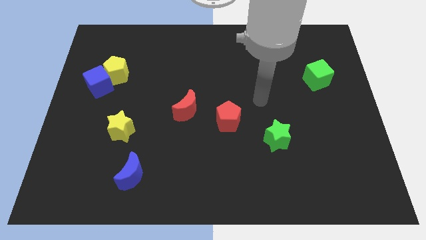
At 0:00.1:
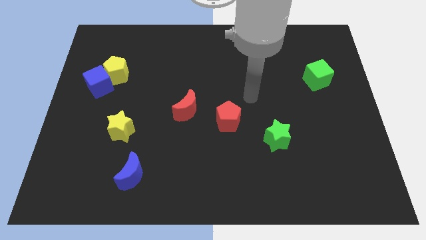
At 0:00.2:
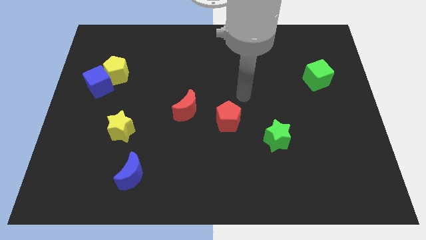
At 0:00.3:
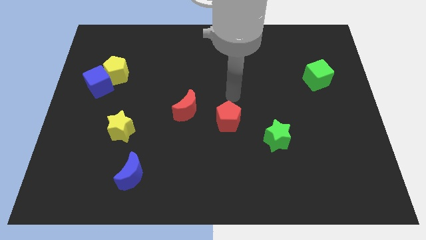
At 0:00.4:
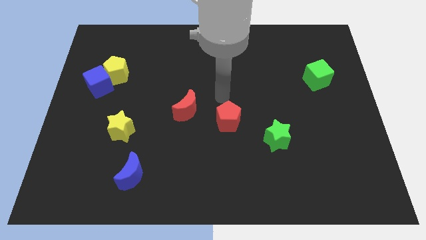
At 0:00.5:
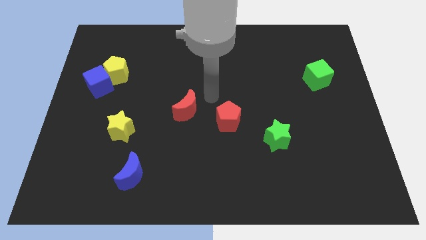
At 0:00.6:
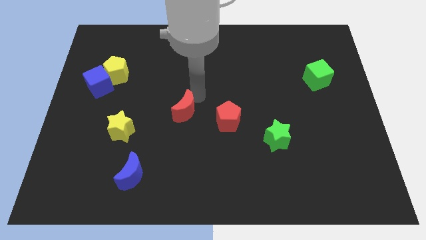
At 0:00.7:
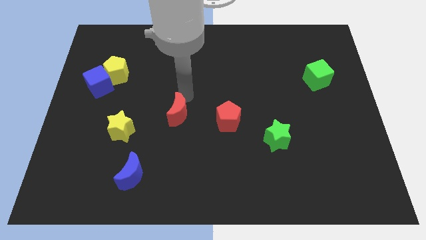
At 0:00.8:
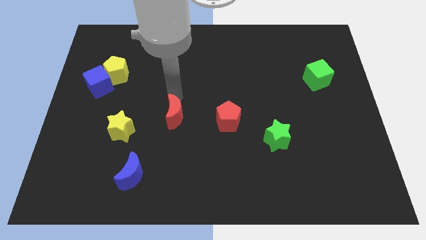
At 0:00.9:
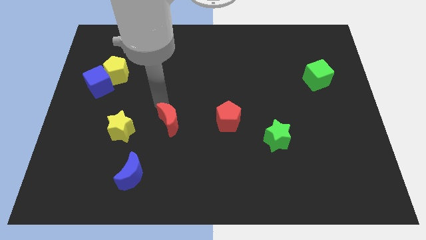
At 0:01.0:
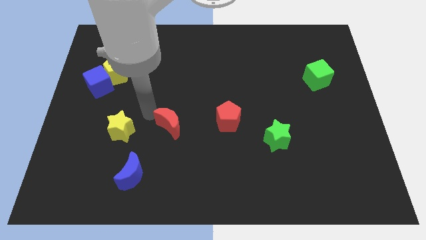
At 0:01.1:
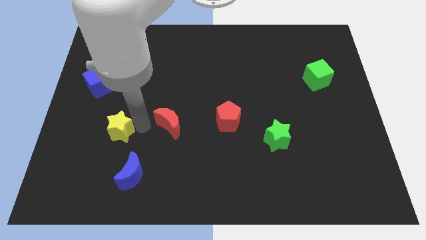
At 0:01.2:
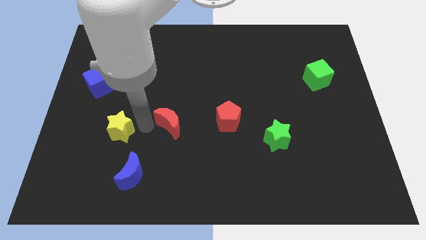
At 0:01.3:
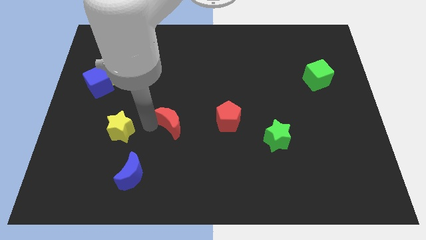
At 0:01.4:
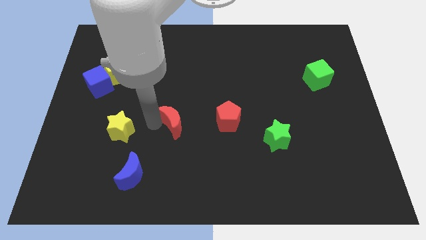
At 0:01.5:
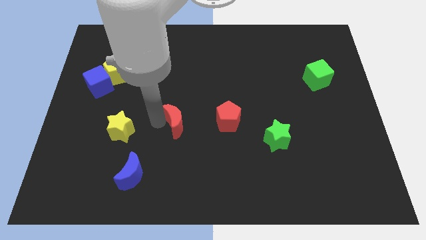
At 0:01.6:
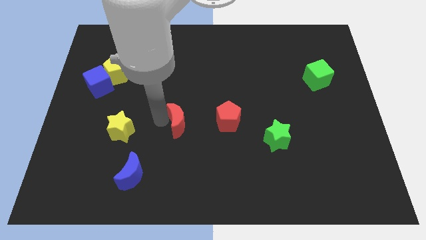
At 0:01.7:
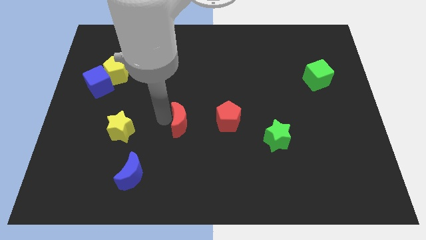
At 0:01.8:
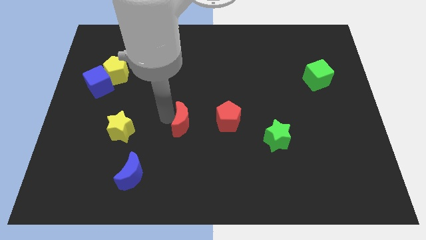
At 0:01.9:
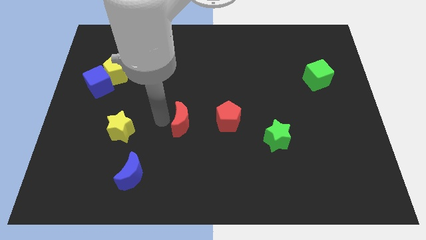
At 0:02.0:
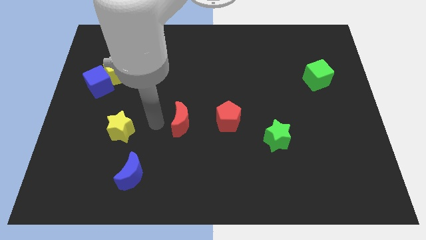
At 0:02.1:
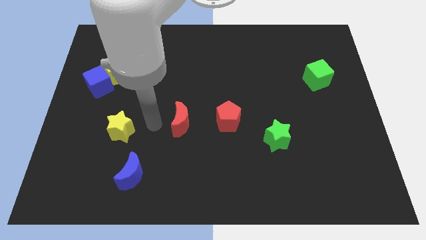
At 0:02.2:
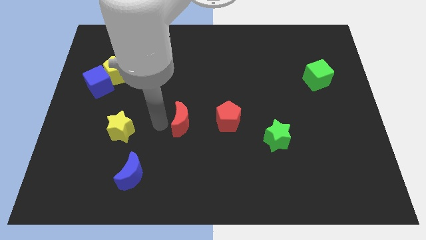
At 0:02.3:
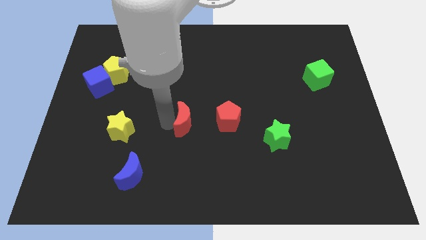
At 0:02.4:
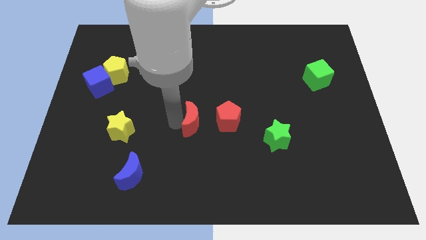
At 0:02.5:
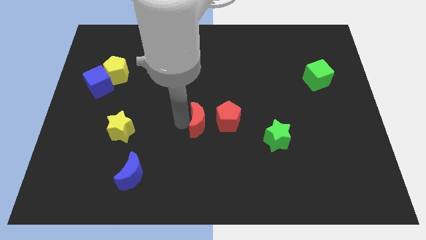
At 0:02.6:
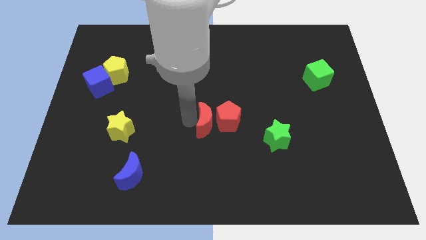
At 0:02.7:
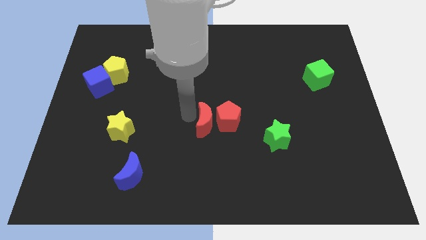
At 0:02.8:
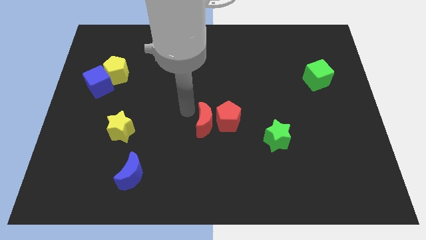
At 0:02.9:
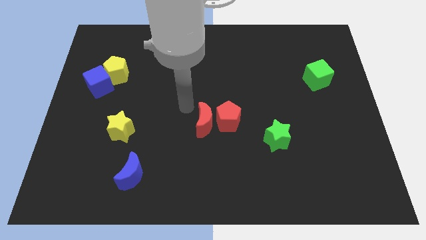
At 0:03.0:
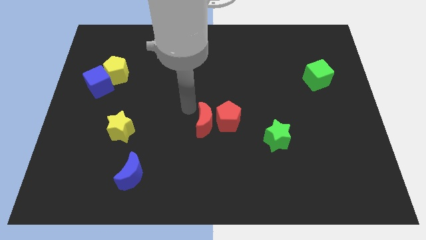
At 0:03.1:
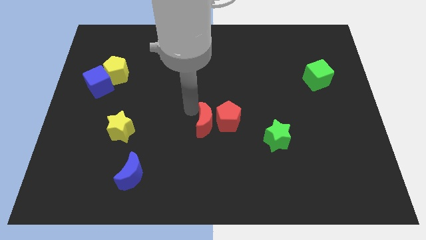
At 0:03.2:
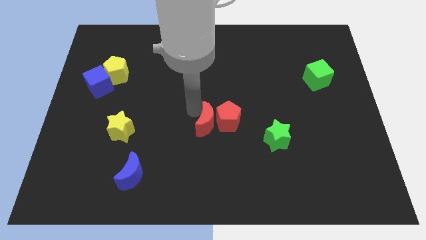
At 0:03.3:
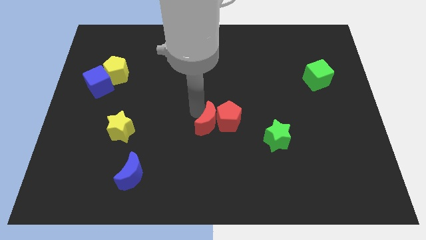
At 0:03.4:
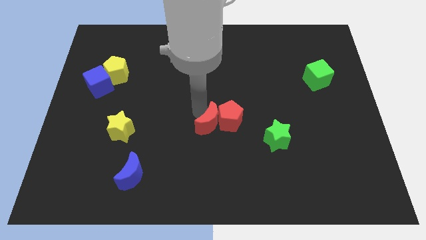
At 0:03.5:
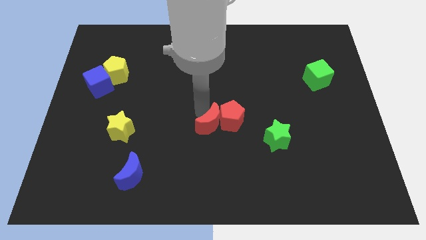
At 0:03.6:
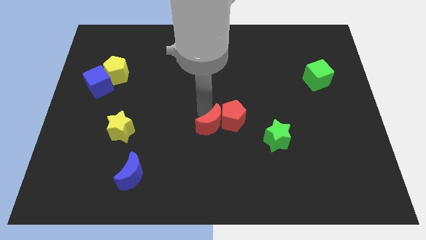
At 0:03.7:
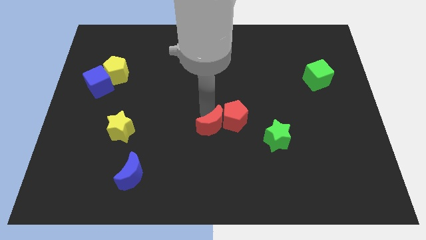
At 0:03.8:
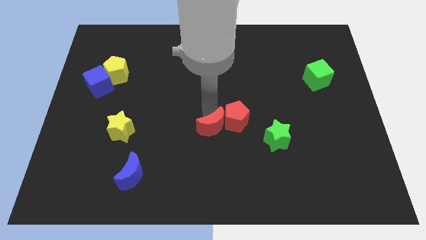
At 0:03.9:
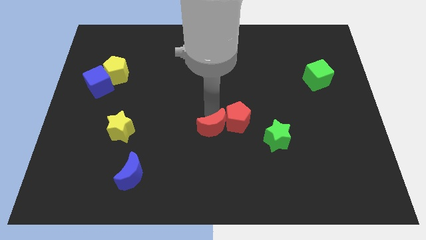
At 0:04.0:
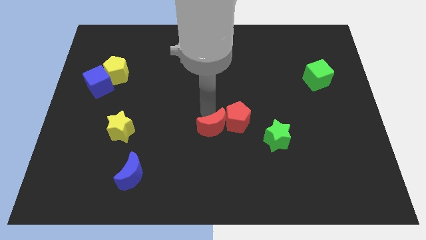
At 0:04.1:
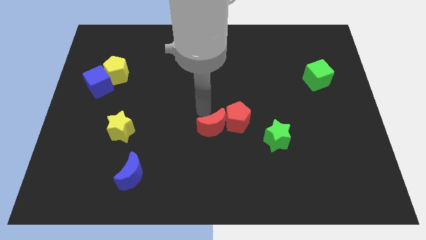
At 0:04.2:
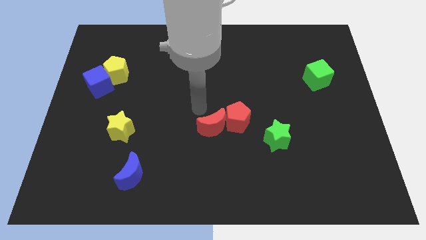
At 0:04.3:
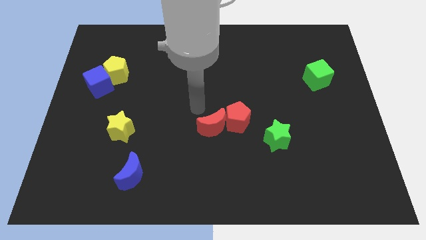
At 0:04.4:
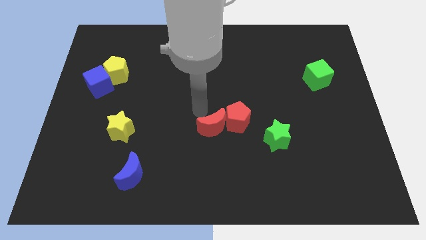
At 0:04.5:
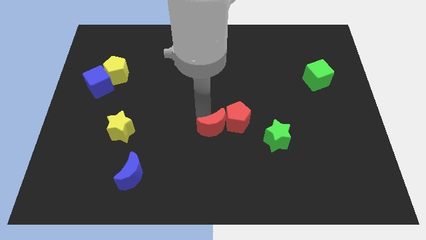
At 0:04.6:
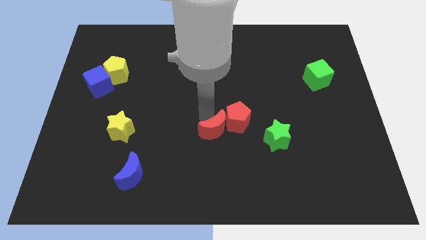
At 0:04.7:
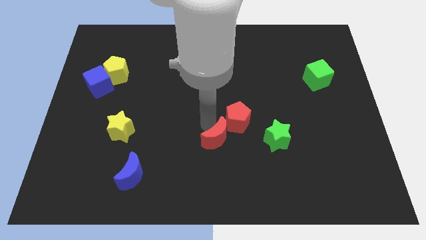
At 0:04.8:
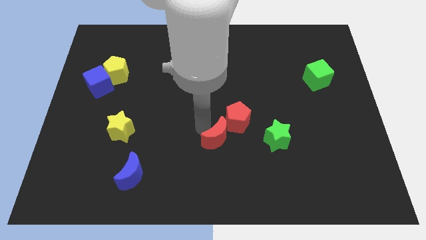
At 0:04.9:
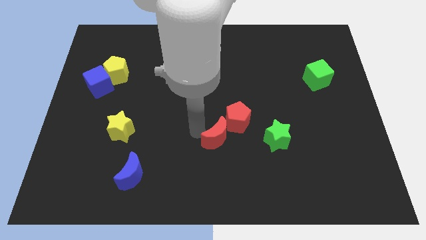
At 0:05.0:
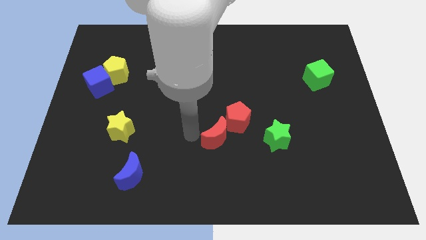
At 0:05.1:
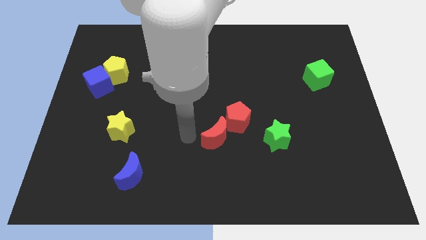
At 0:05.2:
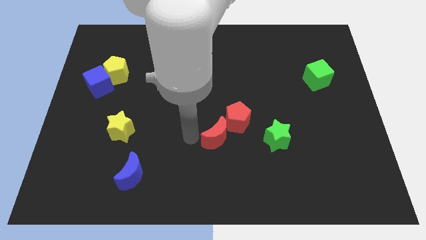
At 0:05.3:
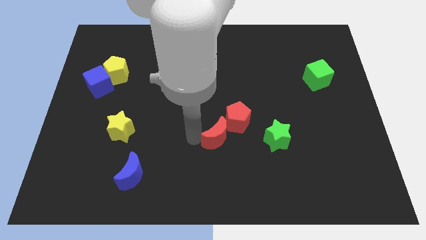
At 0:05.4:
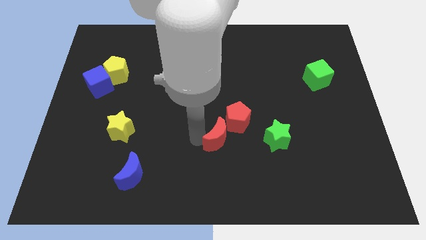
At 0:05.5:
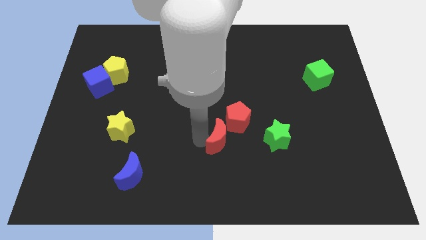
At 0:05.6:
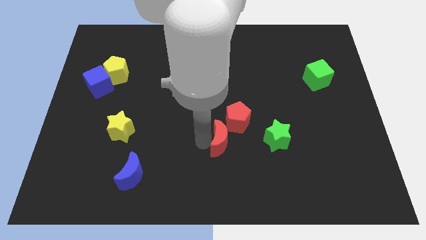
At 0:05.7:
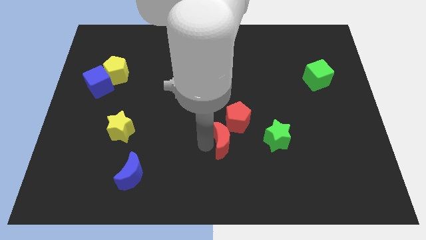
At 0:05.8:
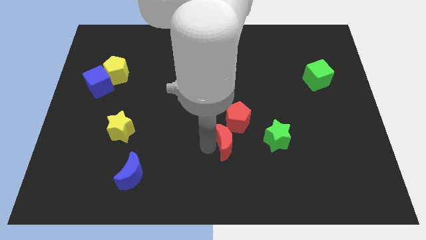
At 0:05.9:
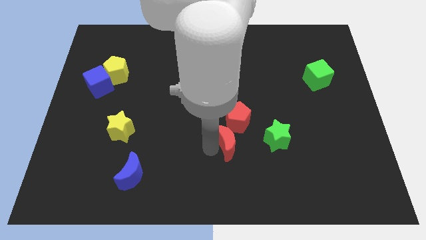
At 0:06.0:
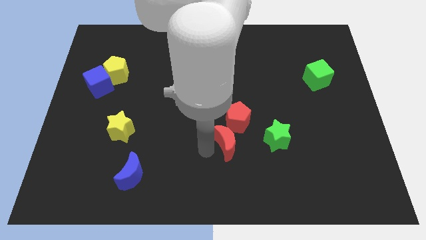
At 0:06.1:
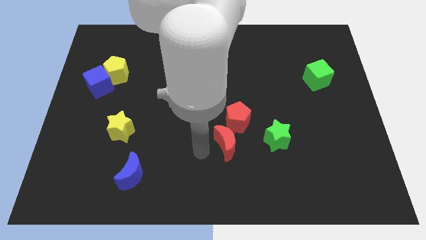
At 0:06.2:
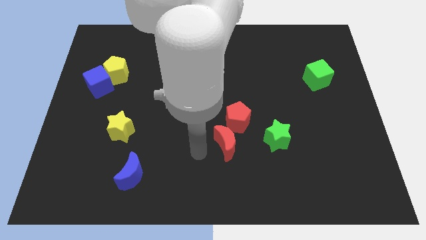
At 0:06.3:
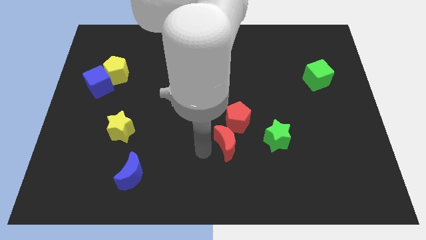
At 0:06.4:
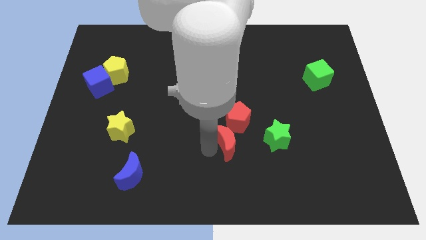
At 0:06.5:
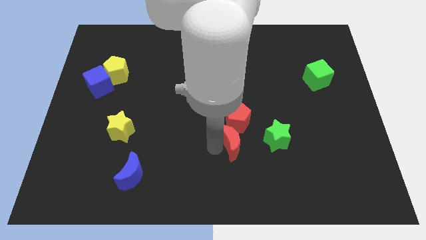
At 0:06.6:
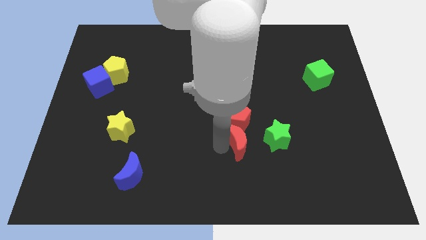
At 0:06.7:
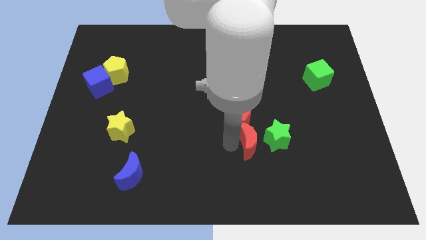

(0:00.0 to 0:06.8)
push the red moon to the green star

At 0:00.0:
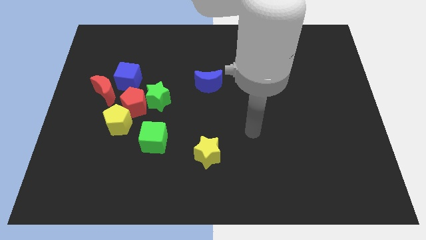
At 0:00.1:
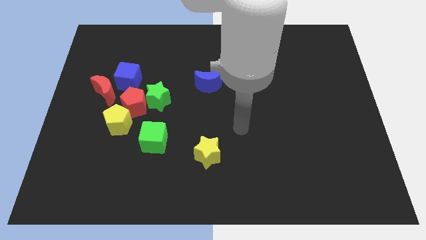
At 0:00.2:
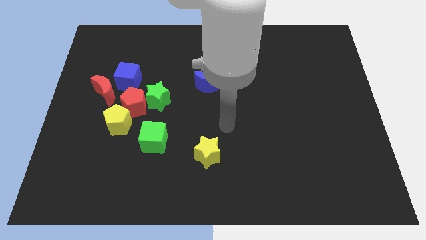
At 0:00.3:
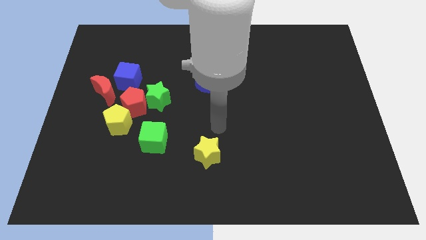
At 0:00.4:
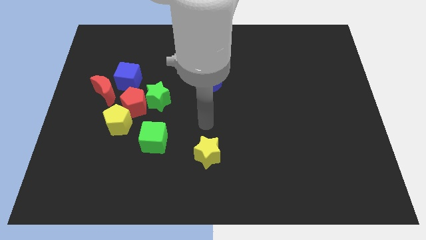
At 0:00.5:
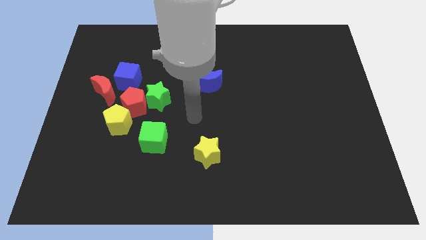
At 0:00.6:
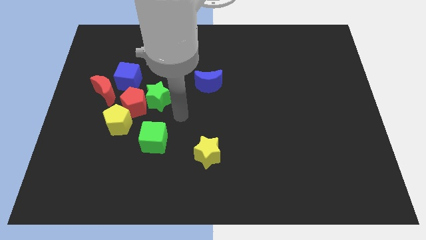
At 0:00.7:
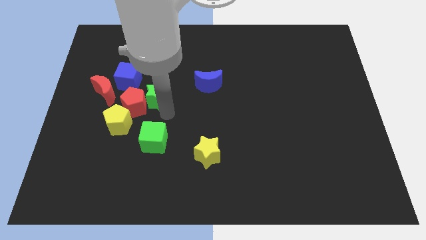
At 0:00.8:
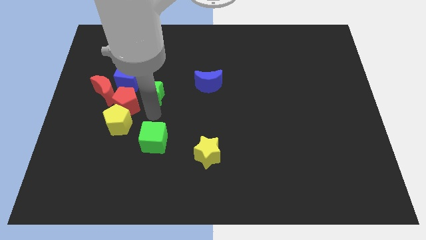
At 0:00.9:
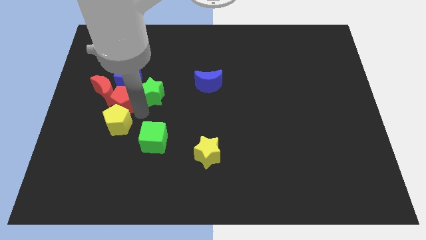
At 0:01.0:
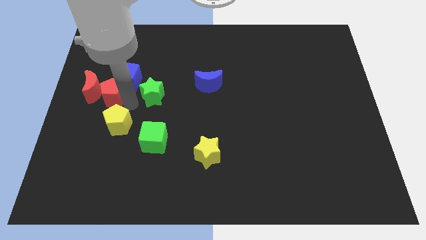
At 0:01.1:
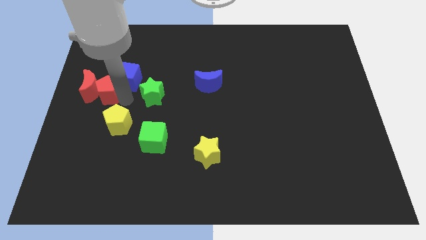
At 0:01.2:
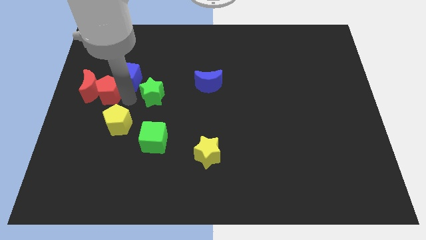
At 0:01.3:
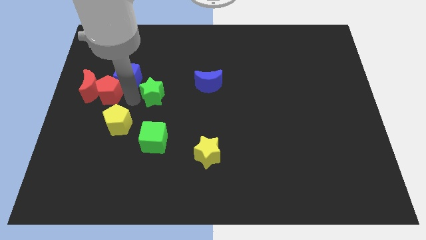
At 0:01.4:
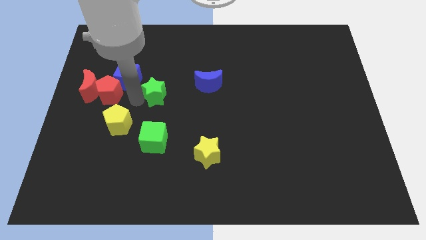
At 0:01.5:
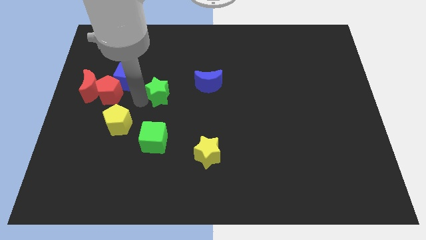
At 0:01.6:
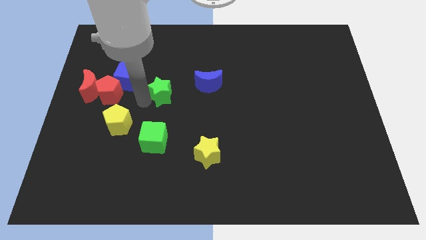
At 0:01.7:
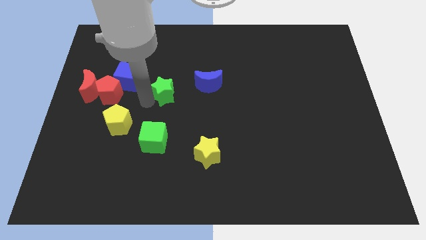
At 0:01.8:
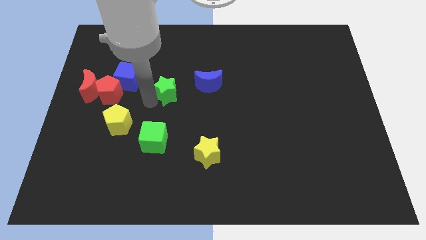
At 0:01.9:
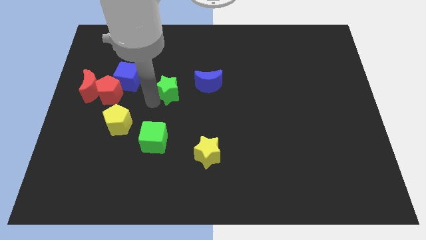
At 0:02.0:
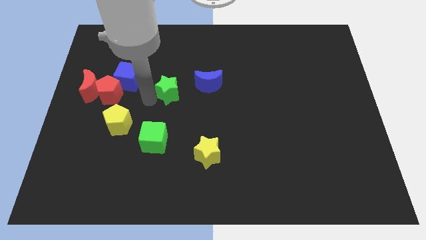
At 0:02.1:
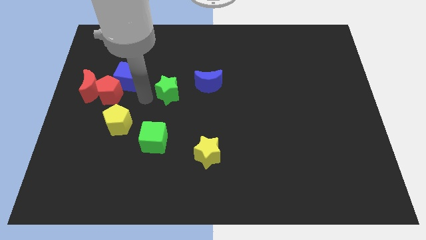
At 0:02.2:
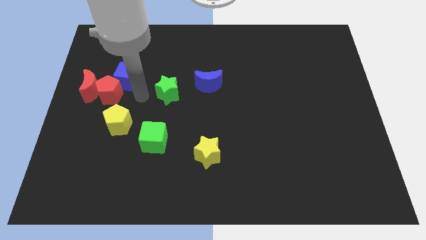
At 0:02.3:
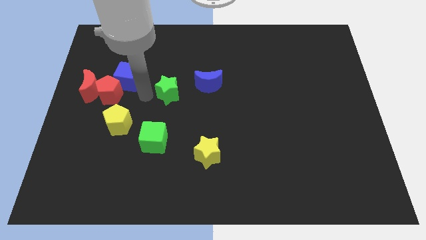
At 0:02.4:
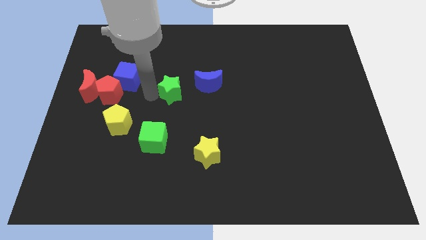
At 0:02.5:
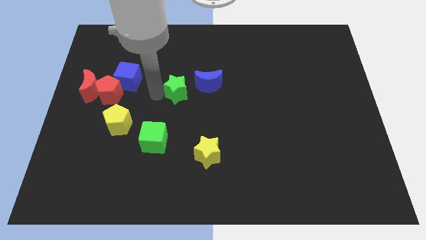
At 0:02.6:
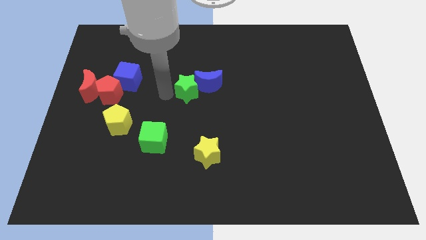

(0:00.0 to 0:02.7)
push the green star next to the blue moon
